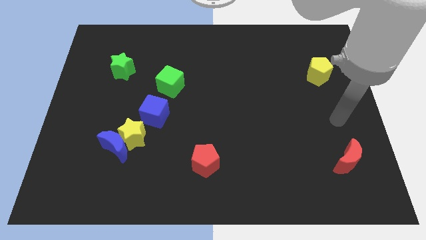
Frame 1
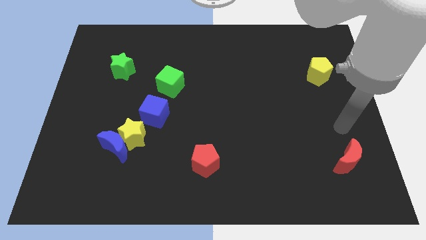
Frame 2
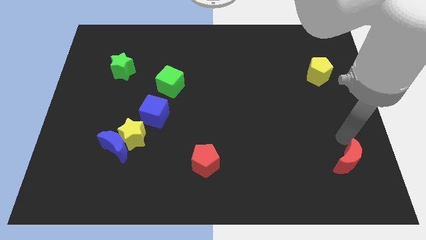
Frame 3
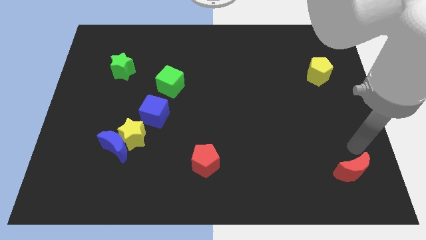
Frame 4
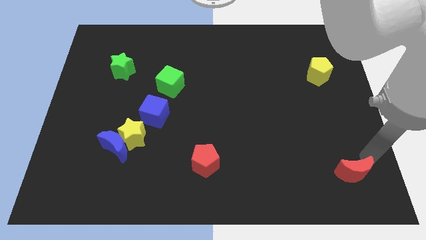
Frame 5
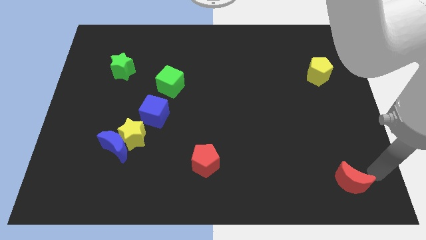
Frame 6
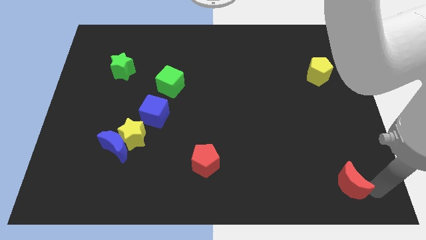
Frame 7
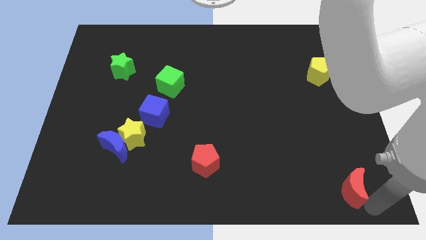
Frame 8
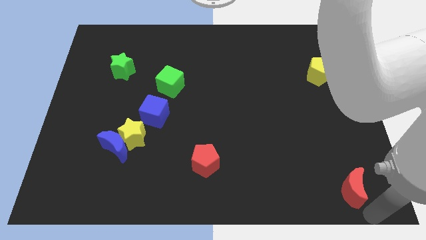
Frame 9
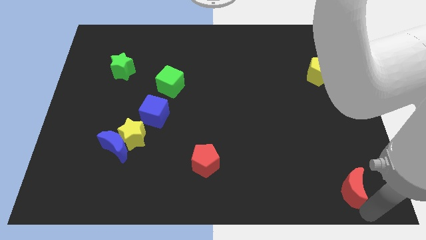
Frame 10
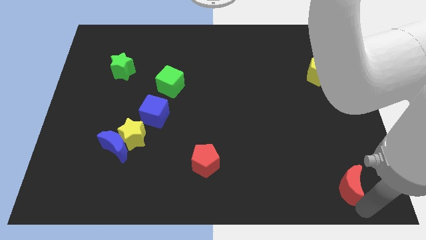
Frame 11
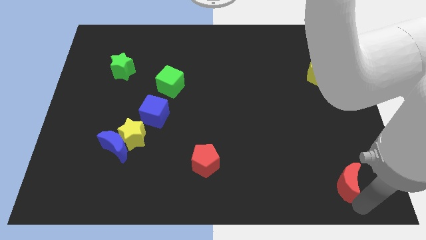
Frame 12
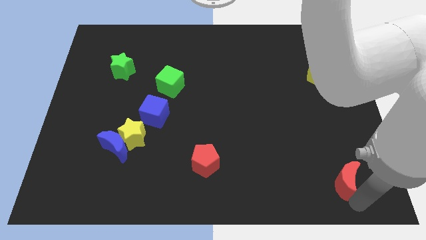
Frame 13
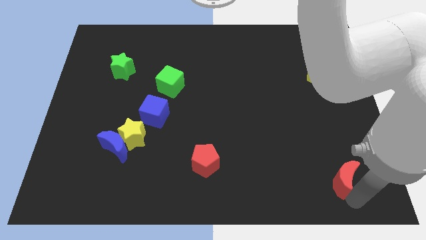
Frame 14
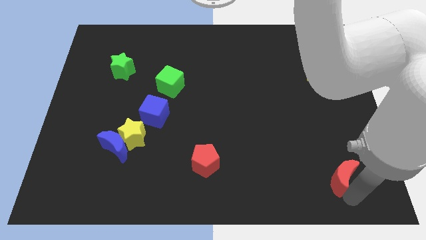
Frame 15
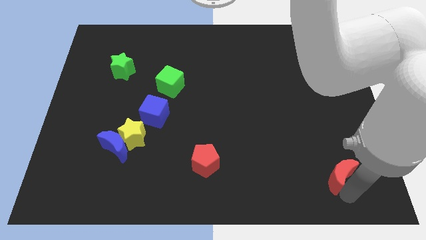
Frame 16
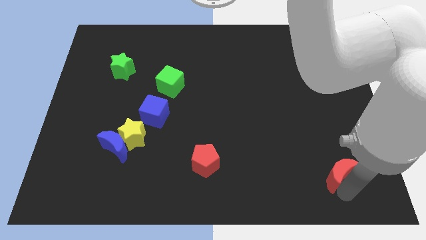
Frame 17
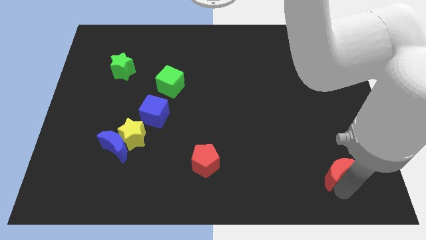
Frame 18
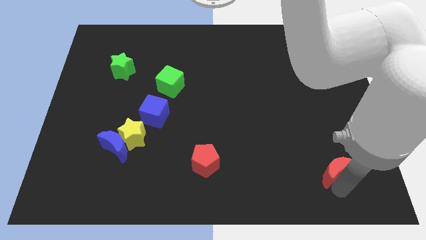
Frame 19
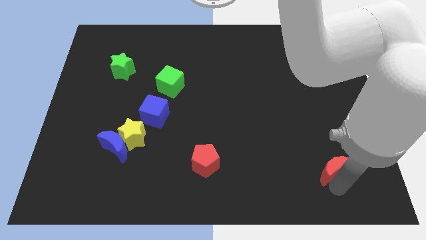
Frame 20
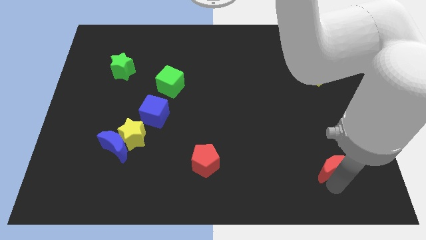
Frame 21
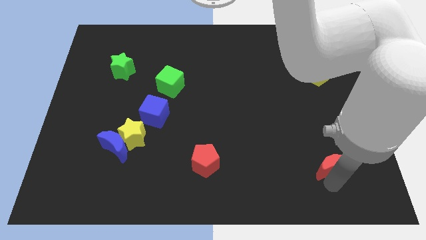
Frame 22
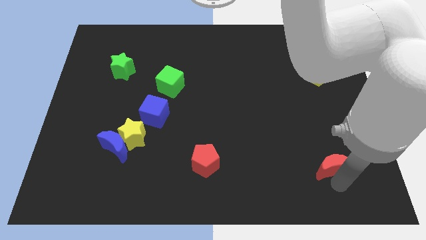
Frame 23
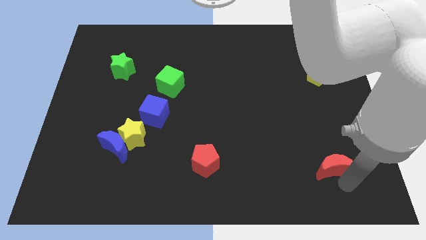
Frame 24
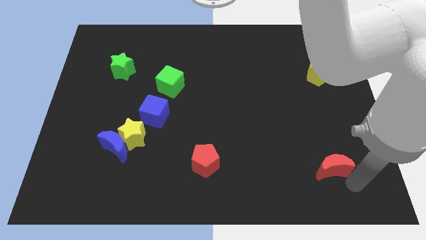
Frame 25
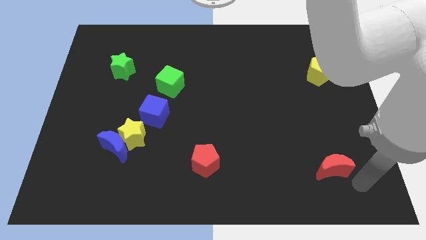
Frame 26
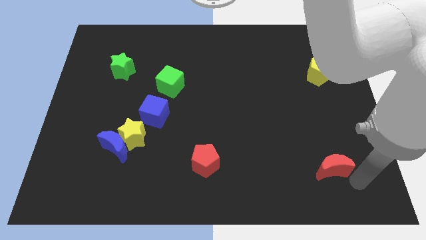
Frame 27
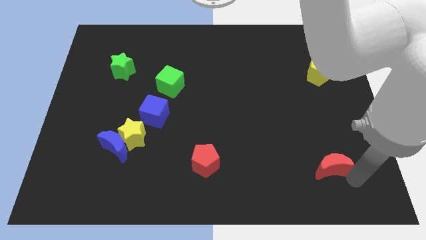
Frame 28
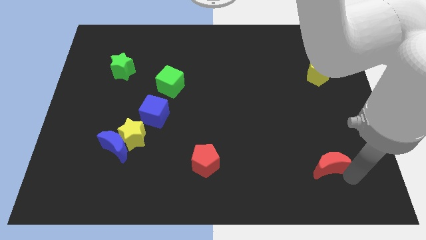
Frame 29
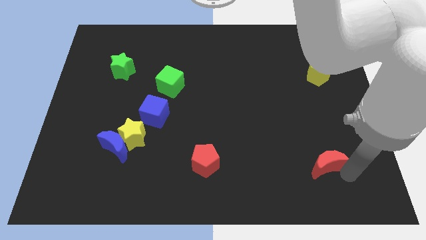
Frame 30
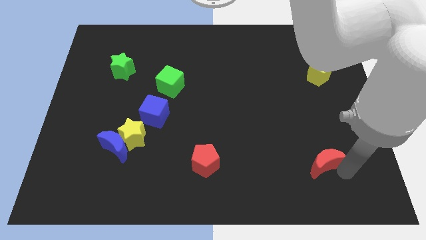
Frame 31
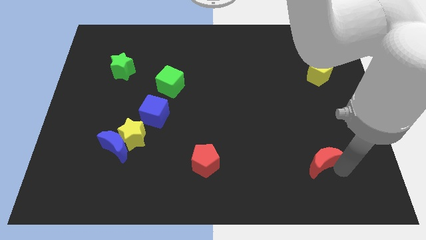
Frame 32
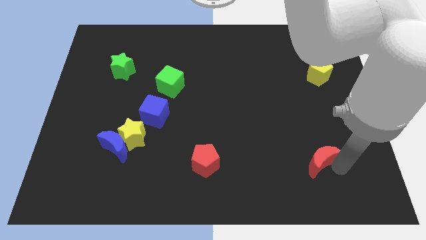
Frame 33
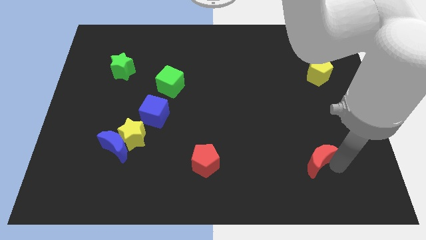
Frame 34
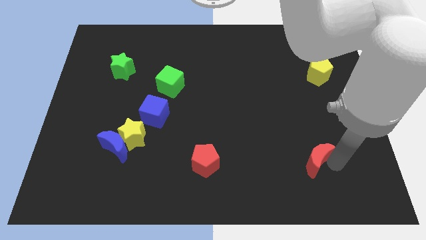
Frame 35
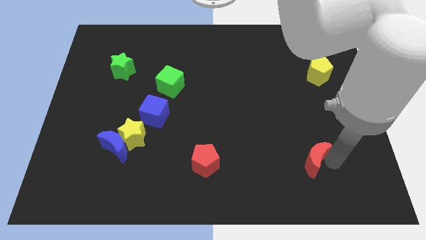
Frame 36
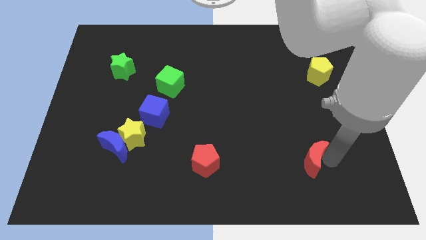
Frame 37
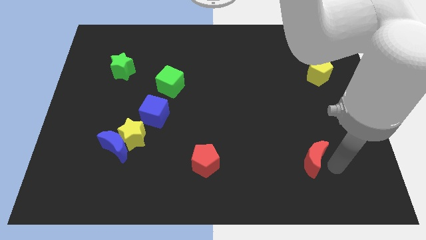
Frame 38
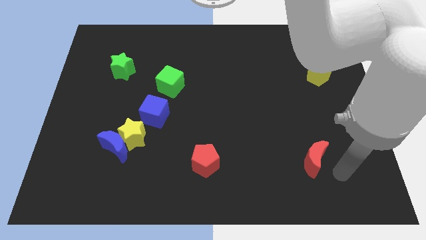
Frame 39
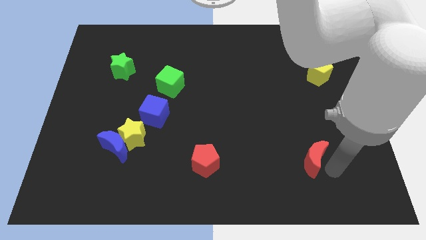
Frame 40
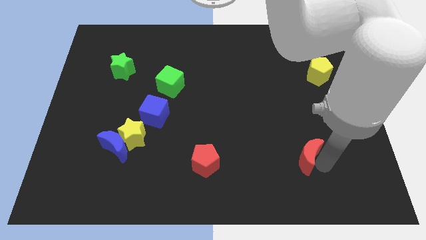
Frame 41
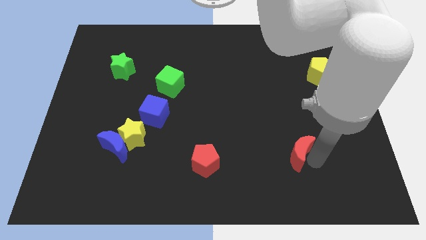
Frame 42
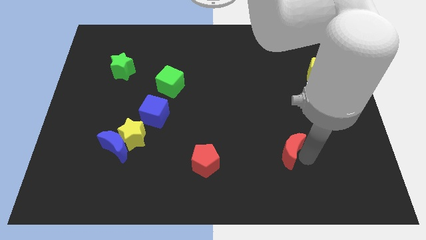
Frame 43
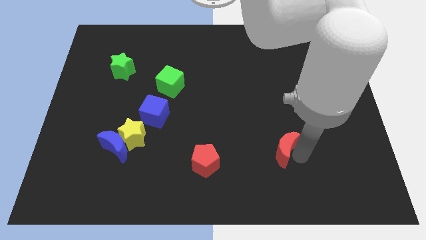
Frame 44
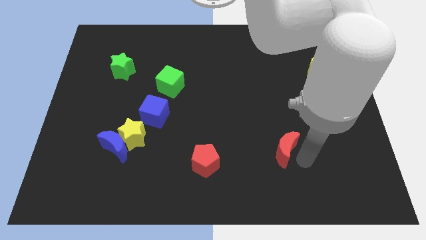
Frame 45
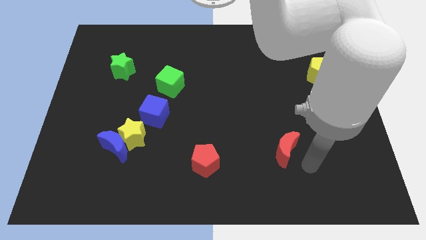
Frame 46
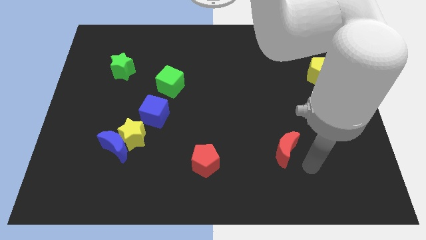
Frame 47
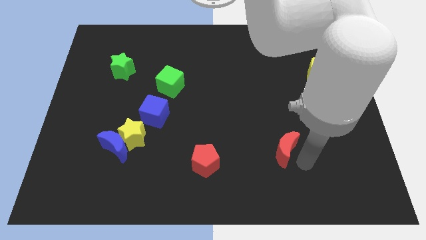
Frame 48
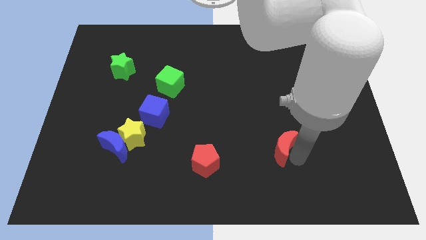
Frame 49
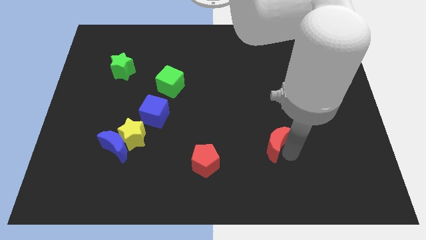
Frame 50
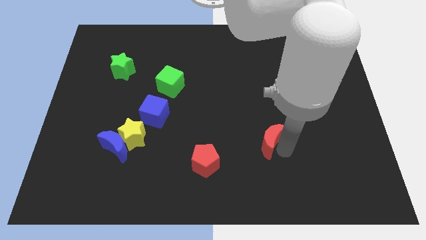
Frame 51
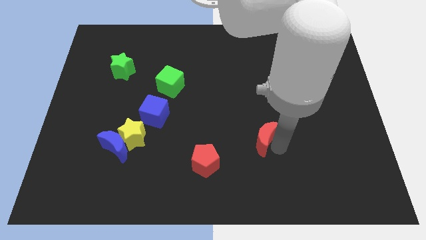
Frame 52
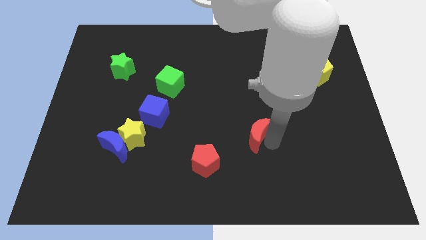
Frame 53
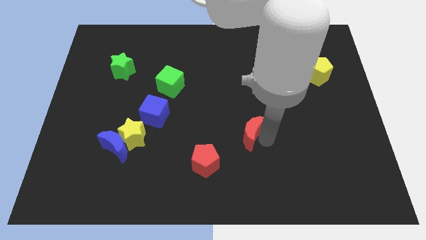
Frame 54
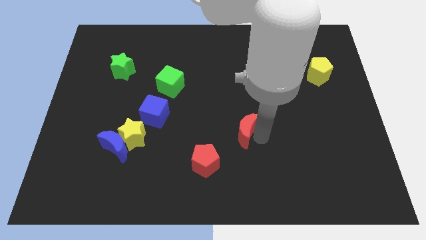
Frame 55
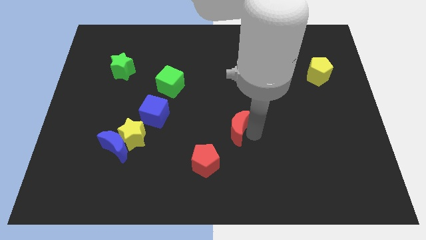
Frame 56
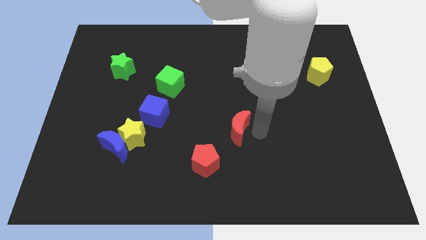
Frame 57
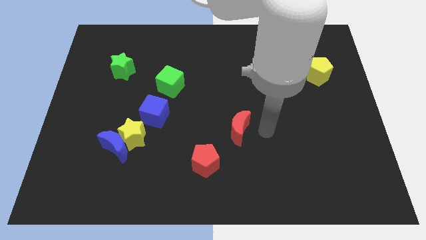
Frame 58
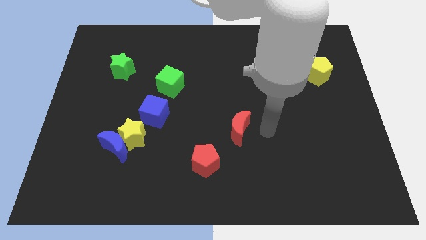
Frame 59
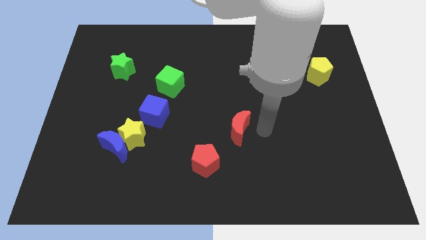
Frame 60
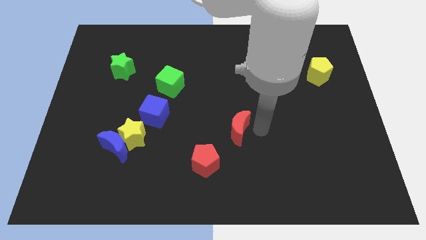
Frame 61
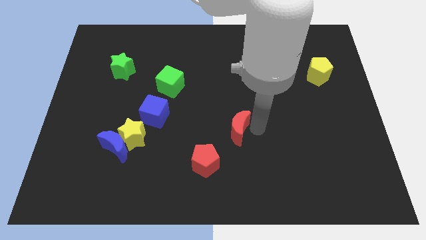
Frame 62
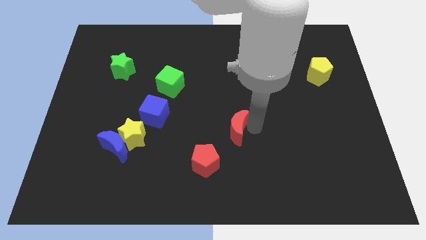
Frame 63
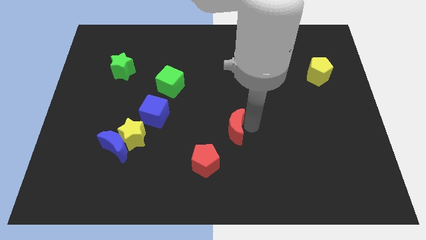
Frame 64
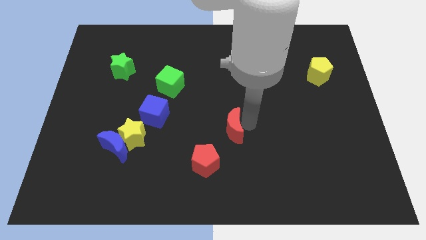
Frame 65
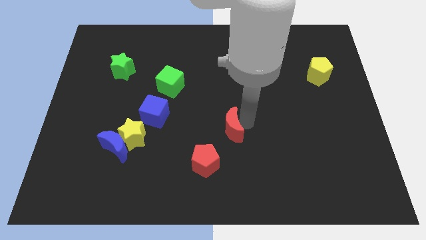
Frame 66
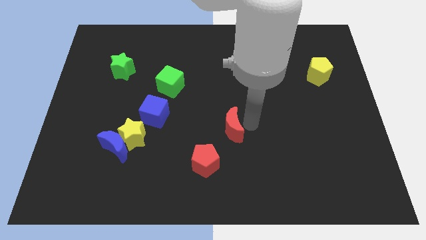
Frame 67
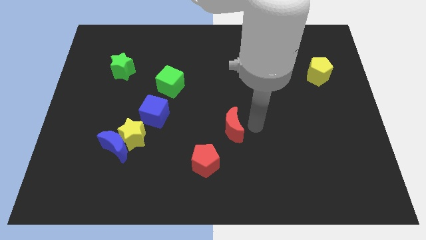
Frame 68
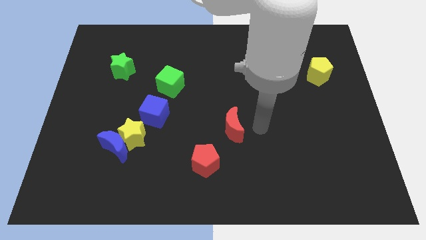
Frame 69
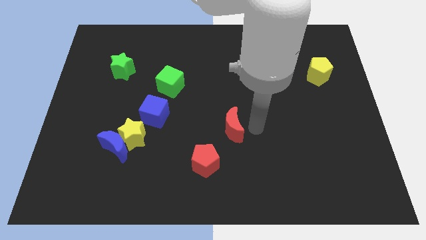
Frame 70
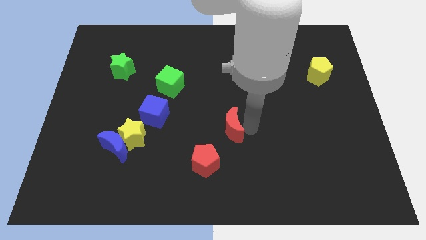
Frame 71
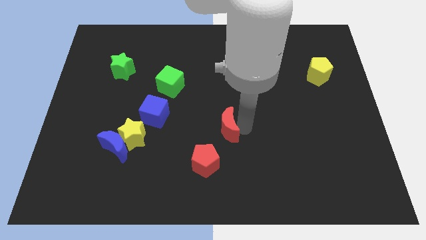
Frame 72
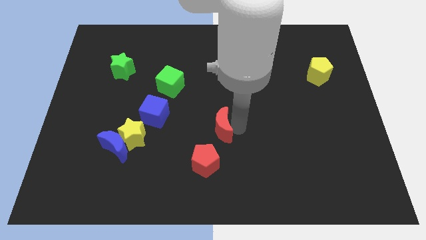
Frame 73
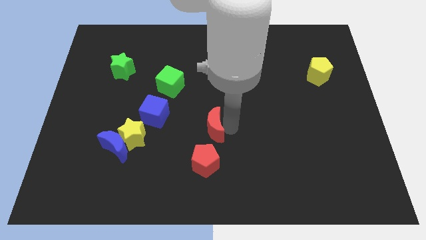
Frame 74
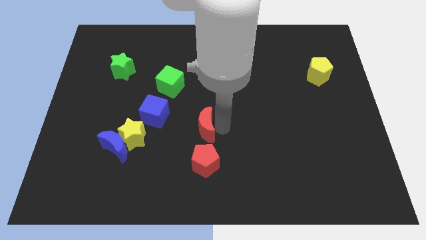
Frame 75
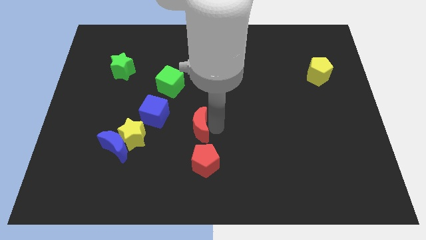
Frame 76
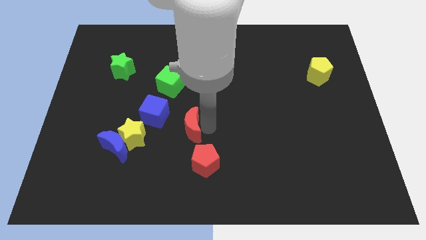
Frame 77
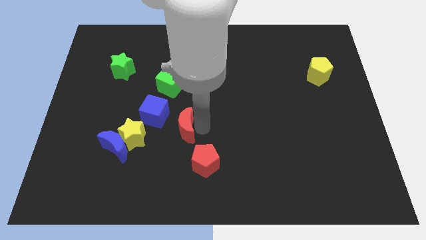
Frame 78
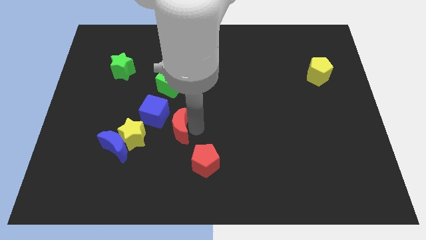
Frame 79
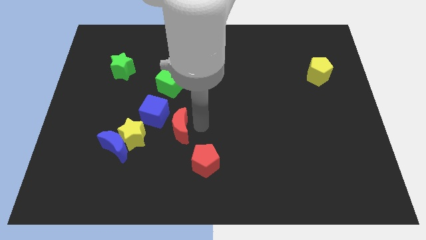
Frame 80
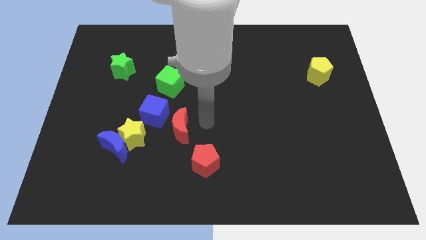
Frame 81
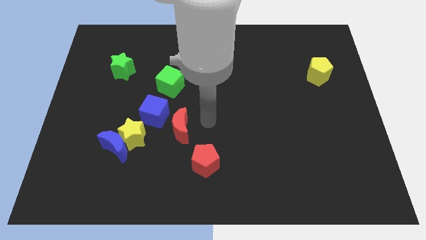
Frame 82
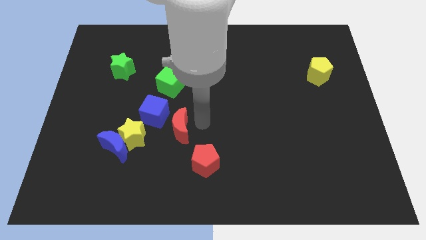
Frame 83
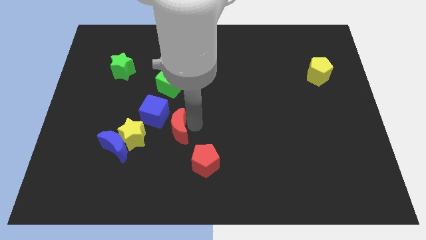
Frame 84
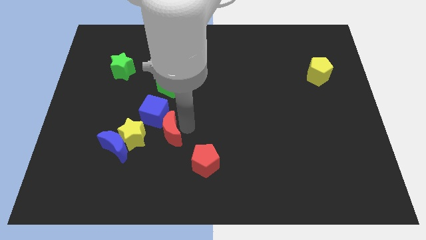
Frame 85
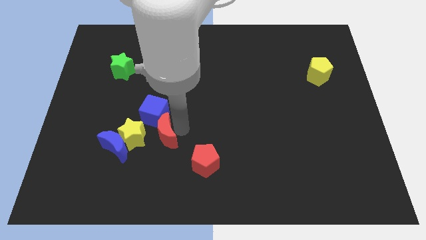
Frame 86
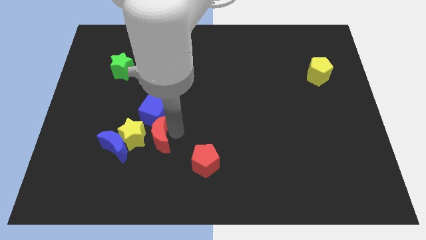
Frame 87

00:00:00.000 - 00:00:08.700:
slide the red moon close to the yellow star
